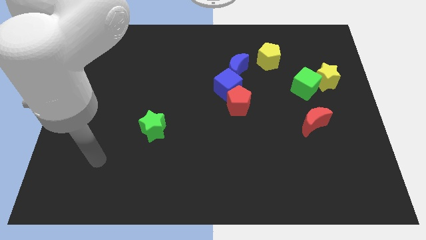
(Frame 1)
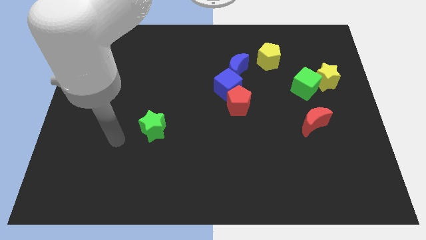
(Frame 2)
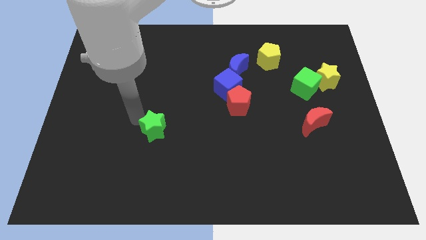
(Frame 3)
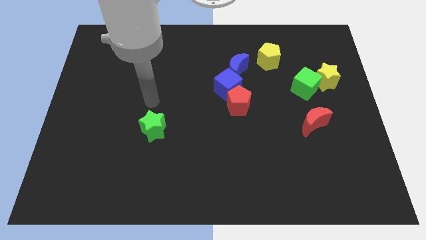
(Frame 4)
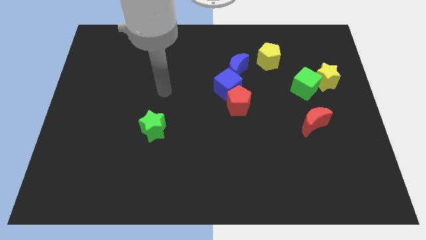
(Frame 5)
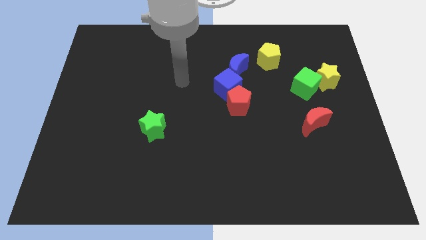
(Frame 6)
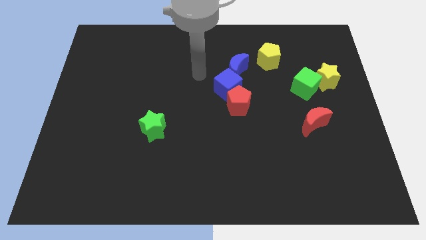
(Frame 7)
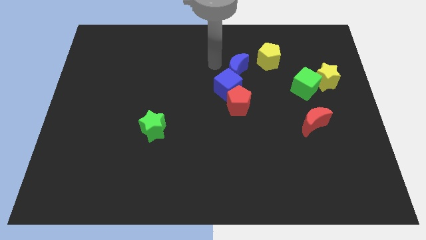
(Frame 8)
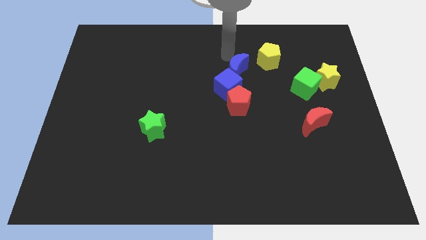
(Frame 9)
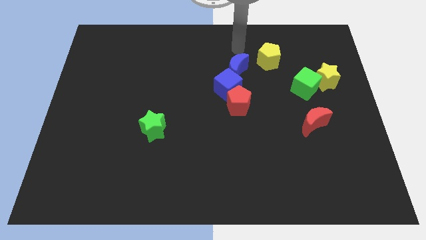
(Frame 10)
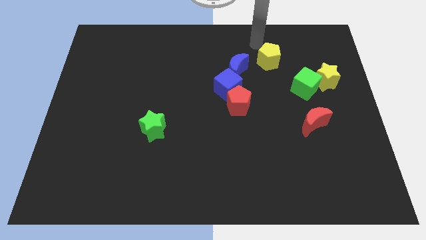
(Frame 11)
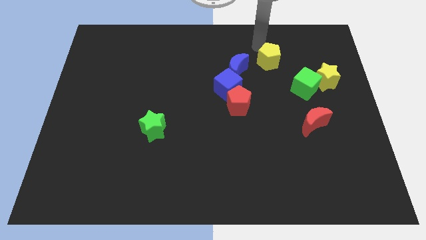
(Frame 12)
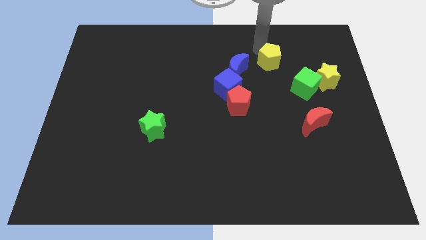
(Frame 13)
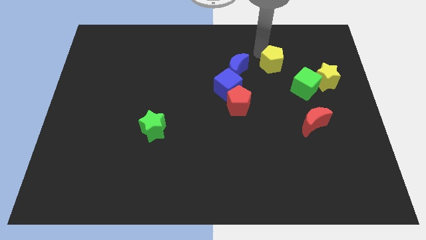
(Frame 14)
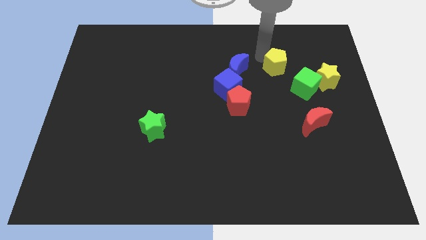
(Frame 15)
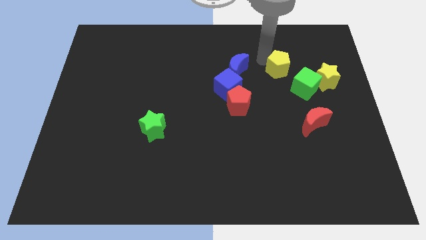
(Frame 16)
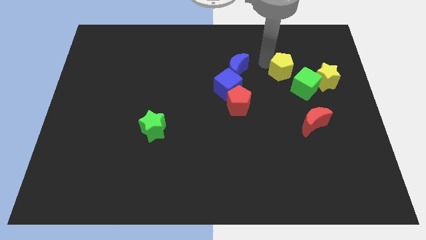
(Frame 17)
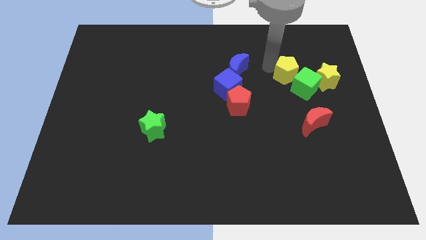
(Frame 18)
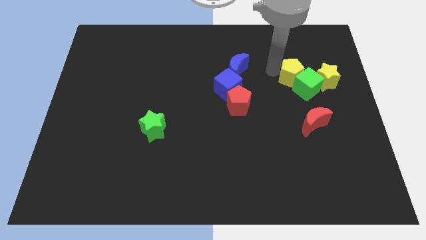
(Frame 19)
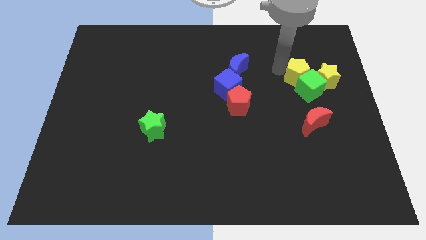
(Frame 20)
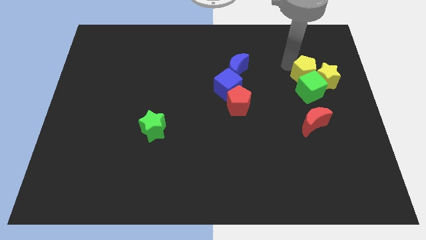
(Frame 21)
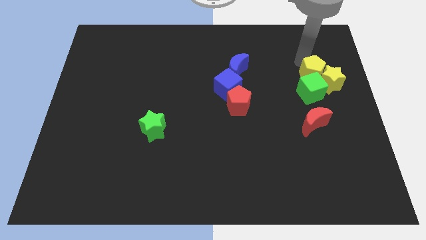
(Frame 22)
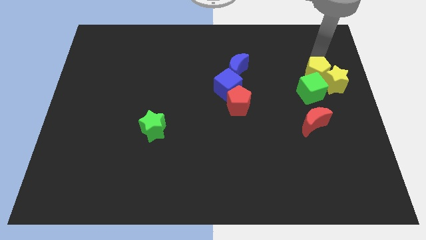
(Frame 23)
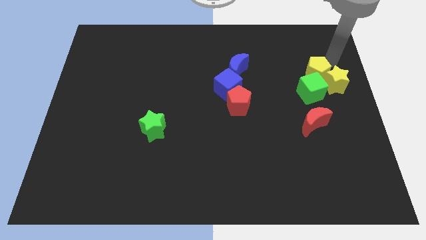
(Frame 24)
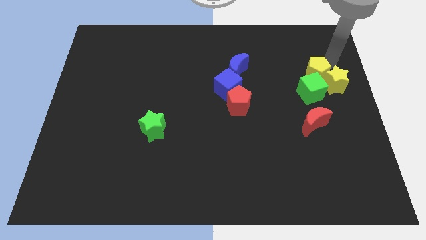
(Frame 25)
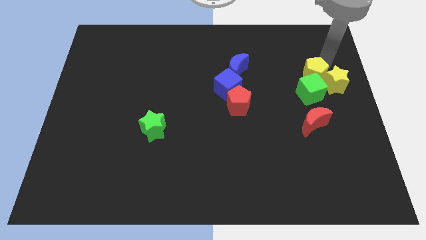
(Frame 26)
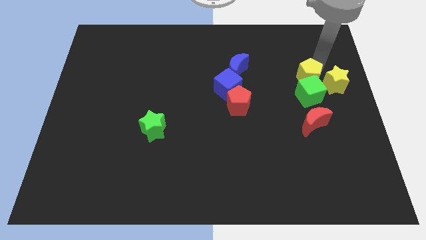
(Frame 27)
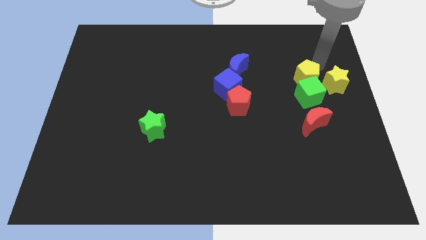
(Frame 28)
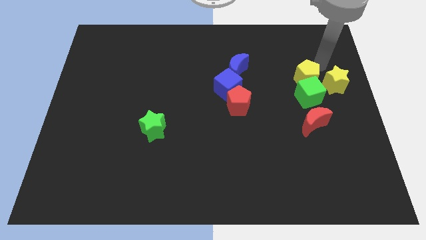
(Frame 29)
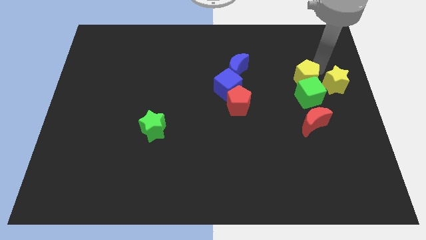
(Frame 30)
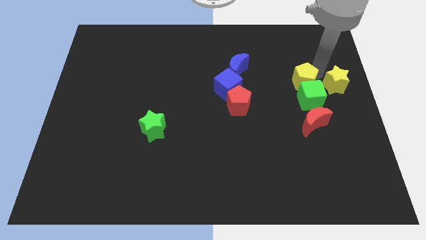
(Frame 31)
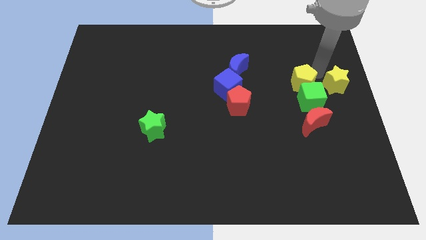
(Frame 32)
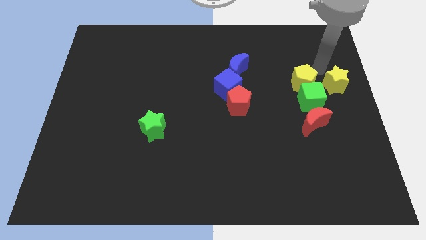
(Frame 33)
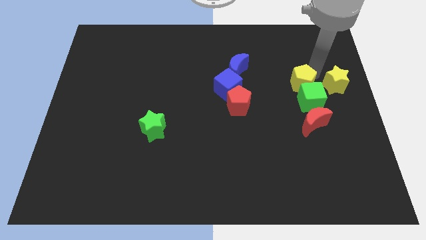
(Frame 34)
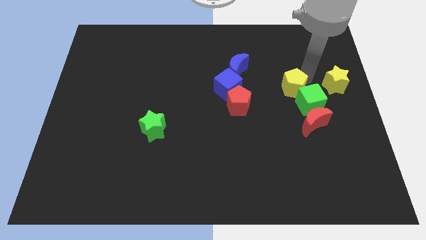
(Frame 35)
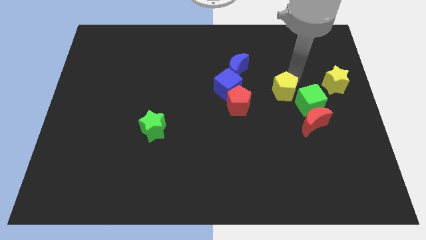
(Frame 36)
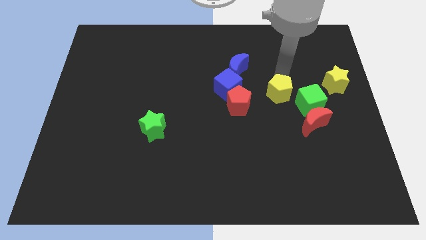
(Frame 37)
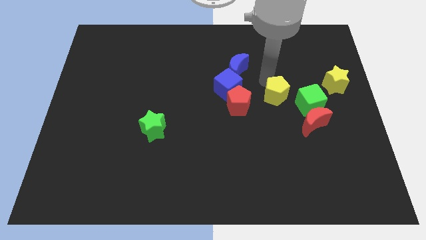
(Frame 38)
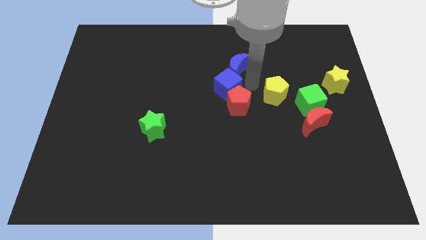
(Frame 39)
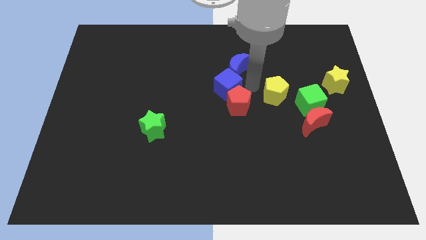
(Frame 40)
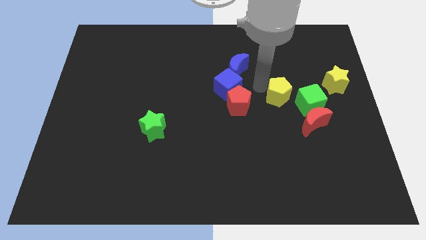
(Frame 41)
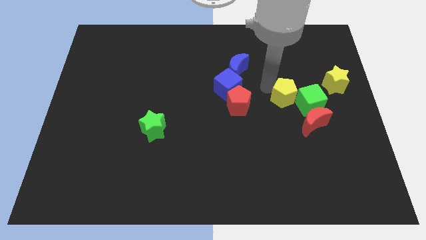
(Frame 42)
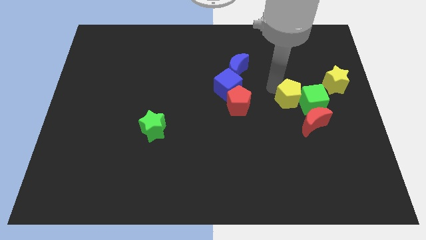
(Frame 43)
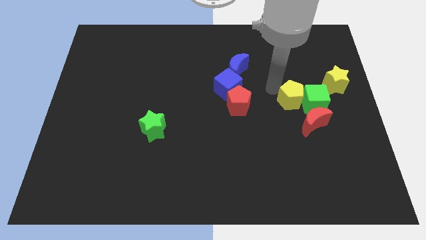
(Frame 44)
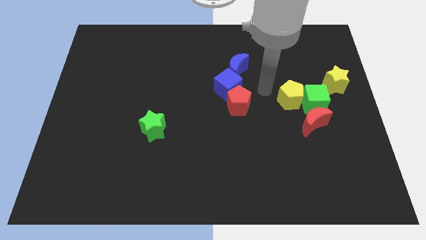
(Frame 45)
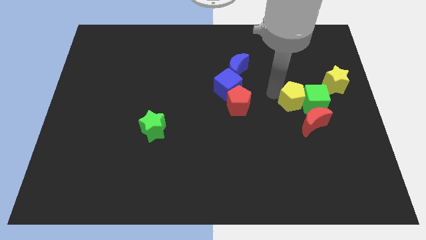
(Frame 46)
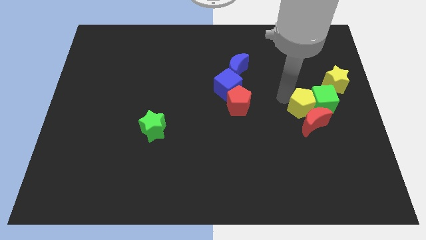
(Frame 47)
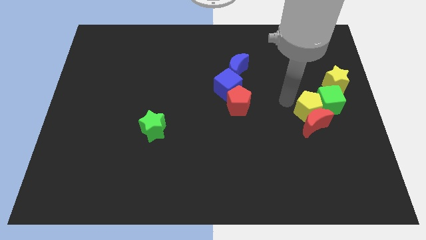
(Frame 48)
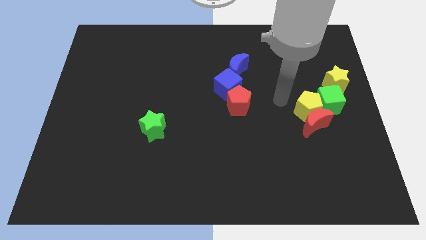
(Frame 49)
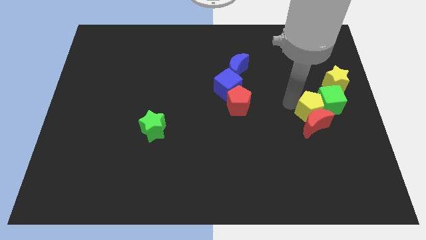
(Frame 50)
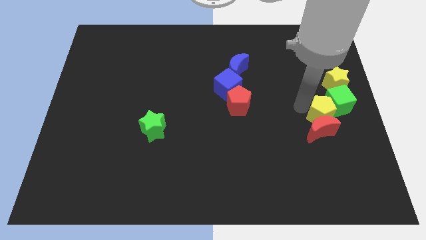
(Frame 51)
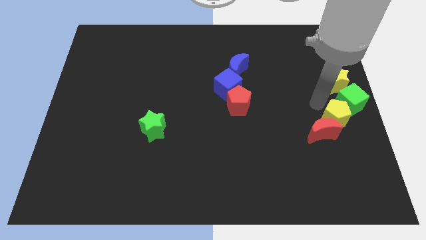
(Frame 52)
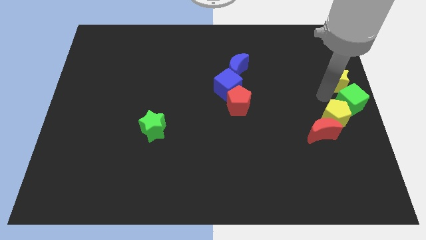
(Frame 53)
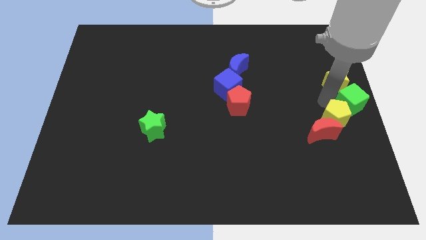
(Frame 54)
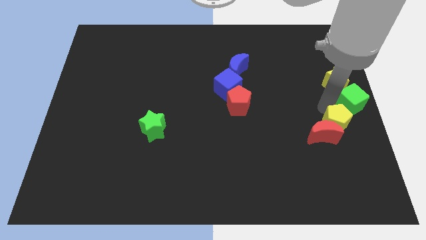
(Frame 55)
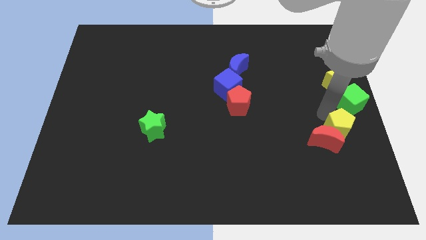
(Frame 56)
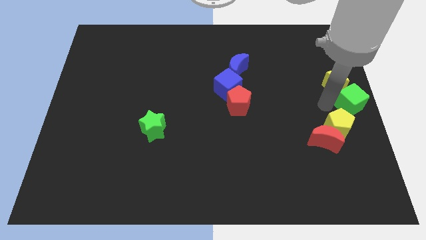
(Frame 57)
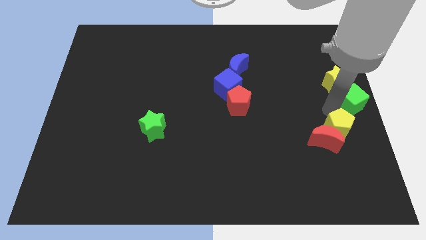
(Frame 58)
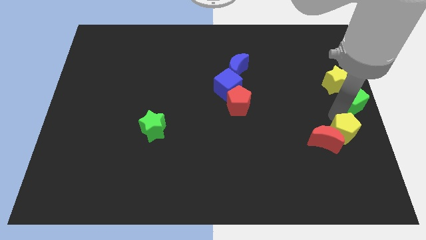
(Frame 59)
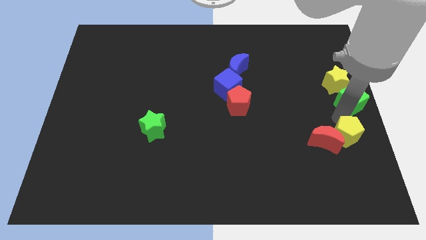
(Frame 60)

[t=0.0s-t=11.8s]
push the yellow pentagon to the bottom right side of the red moon

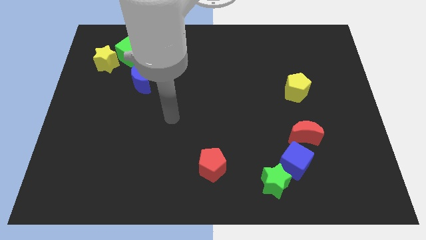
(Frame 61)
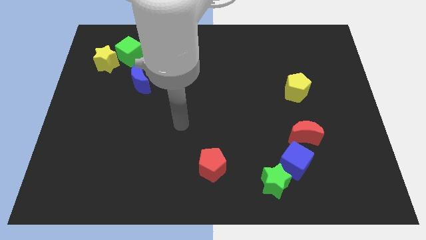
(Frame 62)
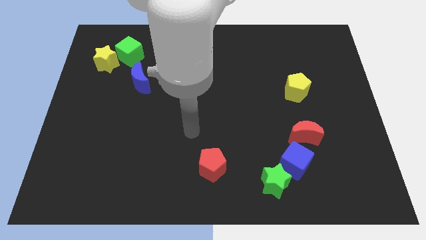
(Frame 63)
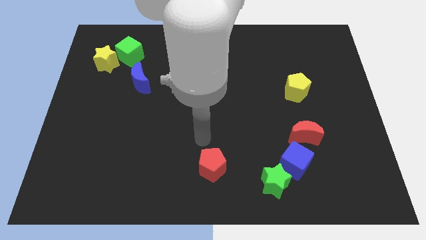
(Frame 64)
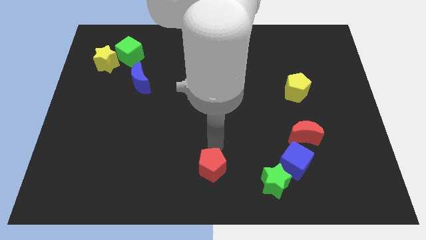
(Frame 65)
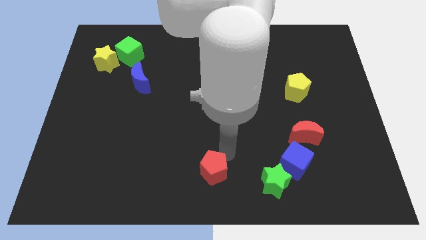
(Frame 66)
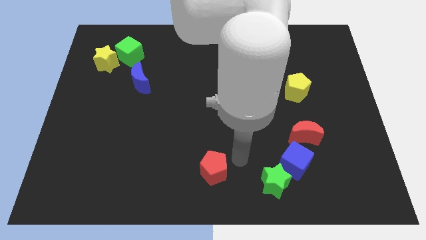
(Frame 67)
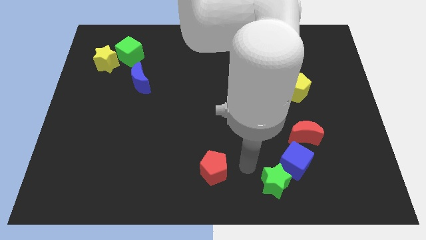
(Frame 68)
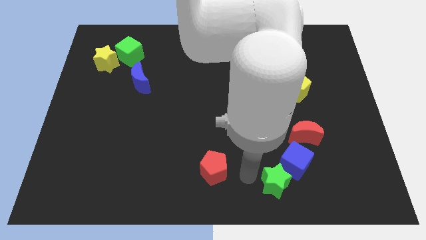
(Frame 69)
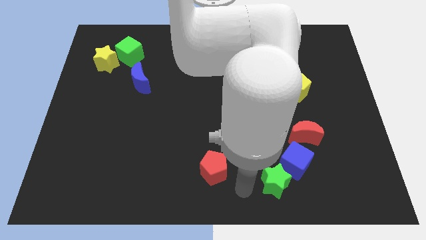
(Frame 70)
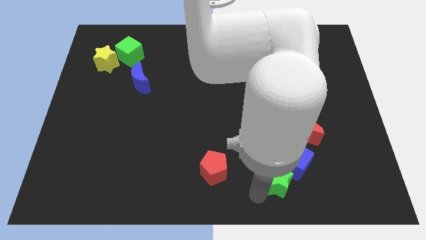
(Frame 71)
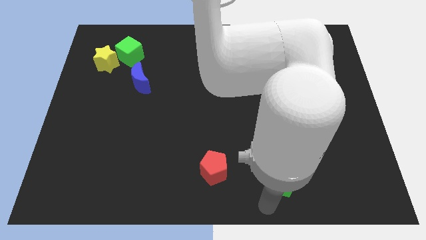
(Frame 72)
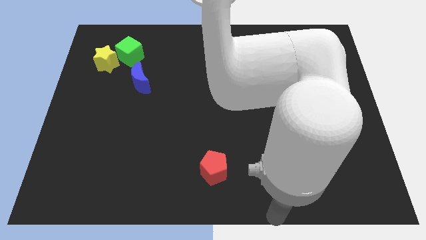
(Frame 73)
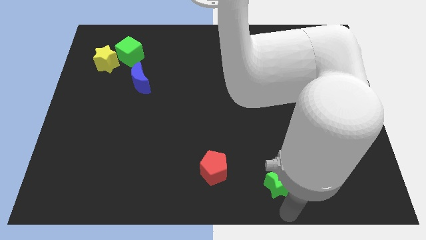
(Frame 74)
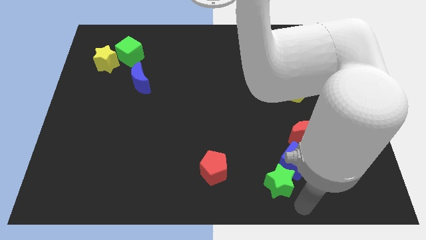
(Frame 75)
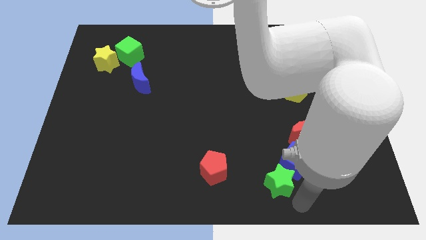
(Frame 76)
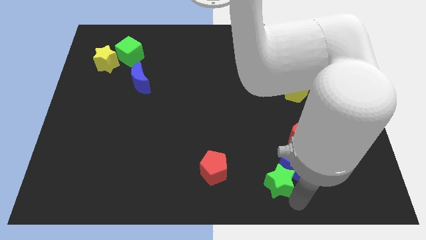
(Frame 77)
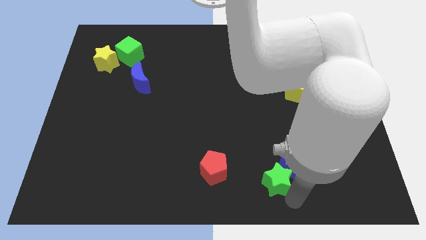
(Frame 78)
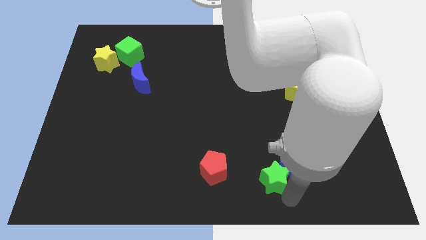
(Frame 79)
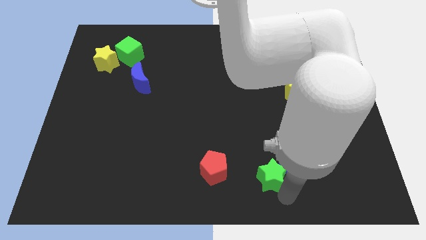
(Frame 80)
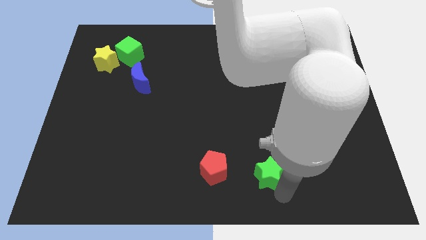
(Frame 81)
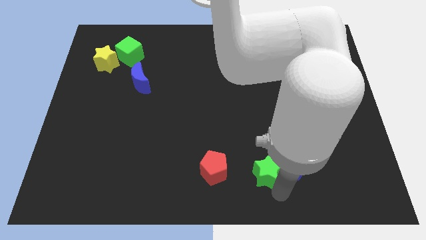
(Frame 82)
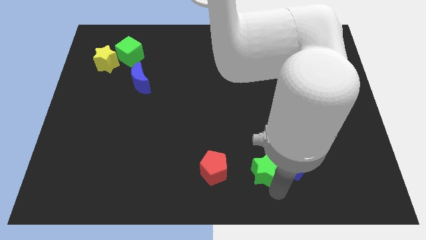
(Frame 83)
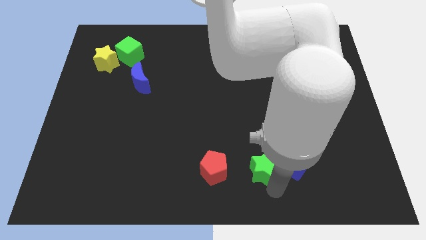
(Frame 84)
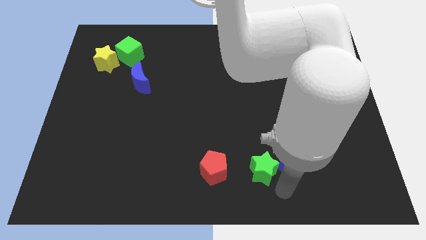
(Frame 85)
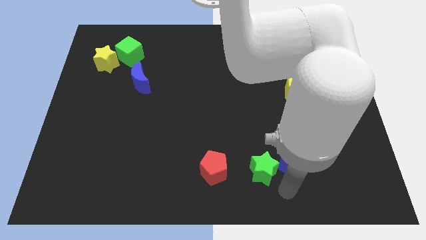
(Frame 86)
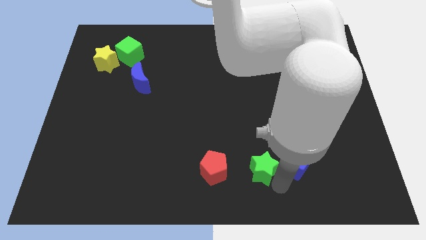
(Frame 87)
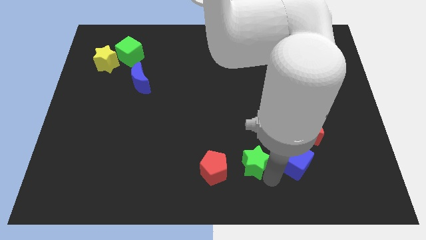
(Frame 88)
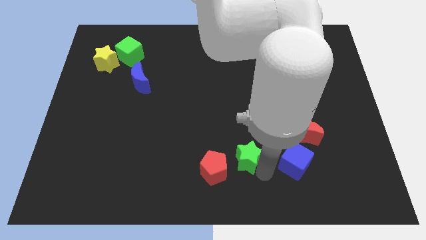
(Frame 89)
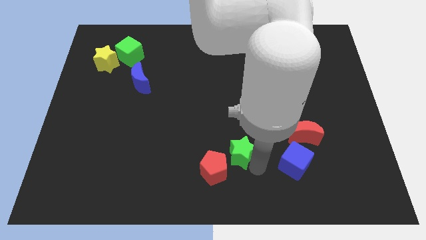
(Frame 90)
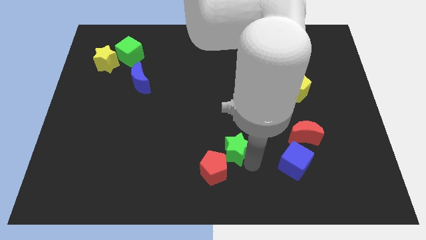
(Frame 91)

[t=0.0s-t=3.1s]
put the green star to the top of the red pentagon
